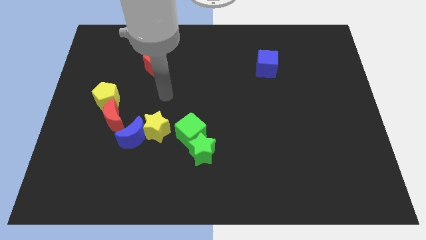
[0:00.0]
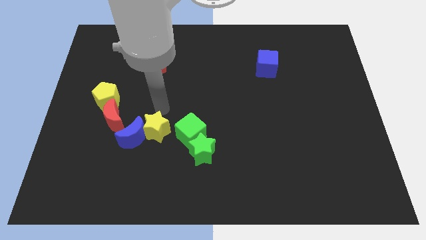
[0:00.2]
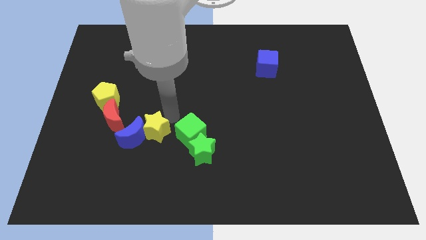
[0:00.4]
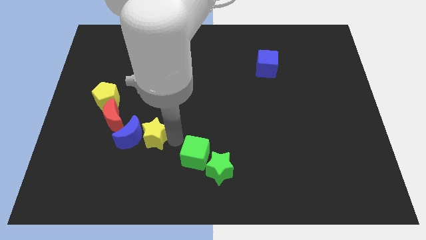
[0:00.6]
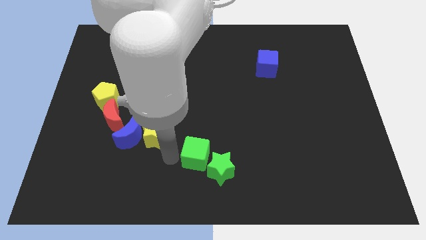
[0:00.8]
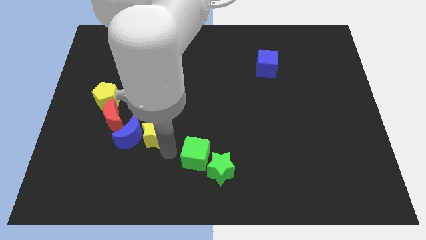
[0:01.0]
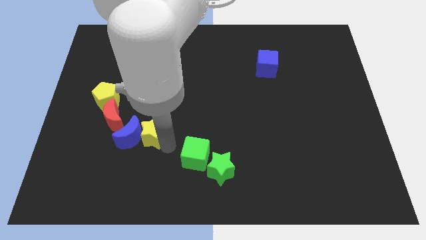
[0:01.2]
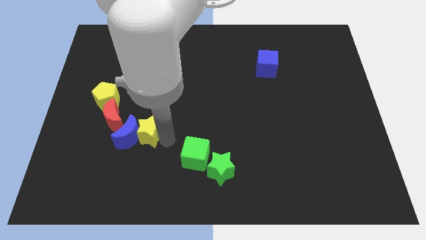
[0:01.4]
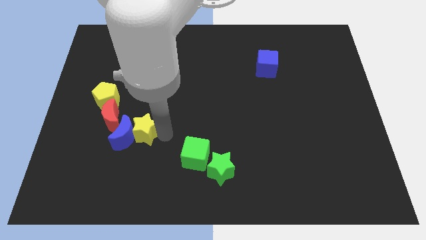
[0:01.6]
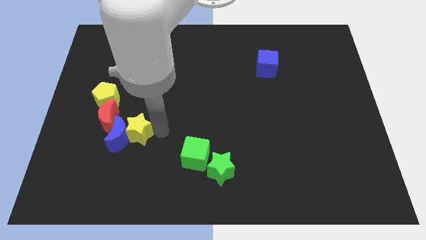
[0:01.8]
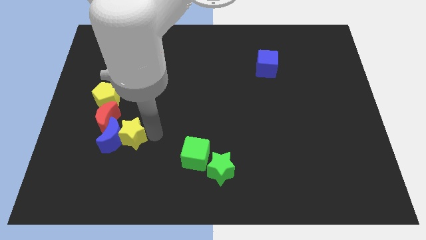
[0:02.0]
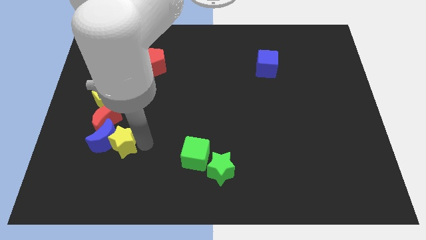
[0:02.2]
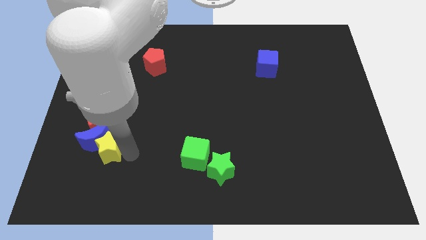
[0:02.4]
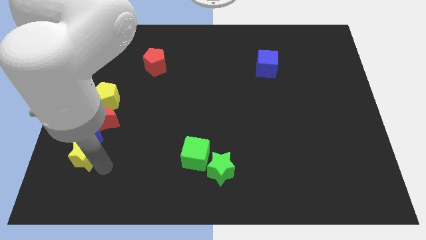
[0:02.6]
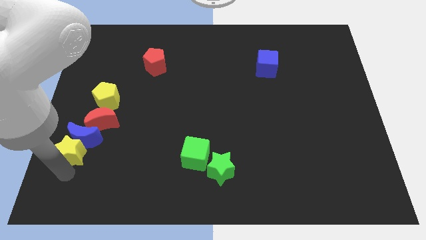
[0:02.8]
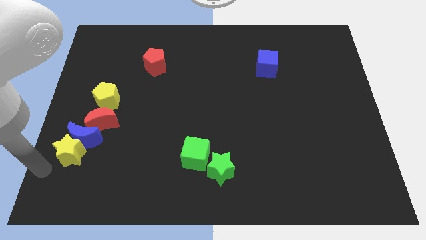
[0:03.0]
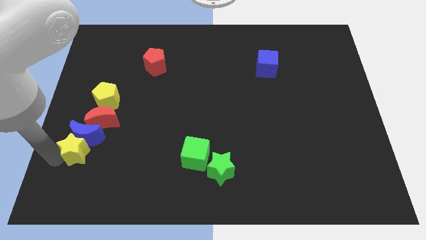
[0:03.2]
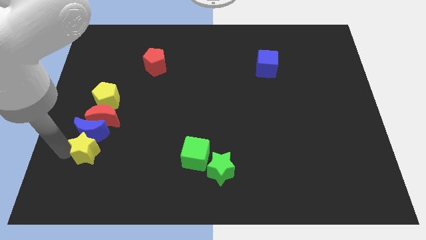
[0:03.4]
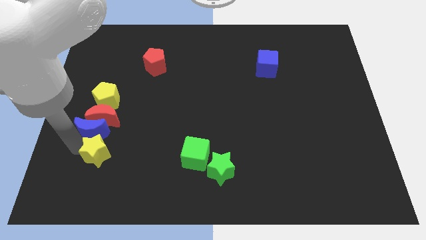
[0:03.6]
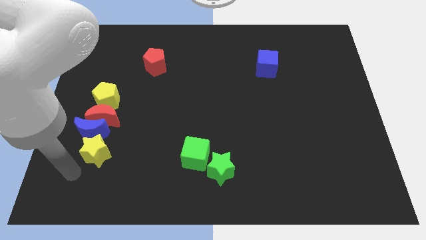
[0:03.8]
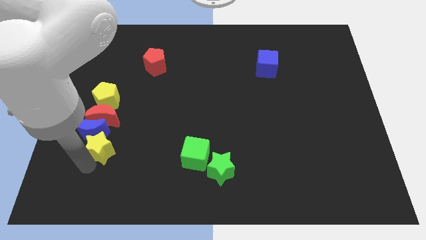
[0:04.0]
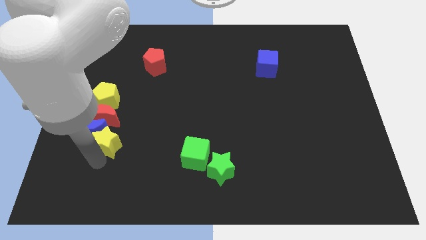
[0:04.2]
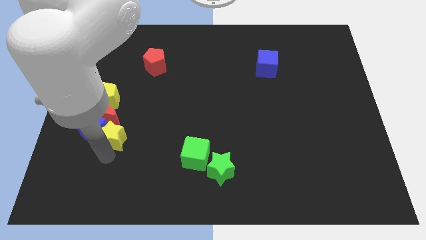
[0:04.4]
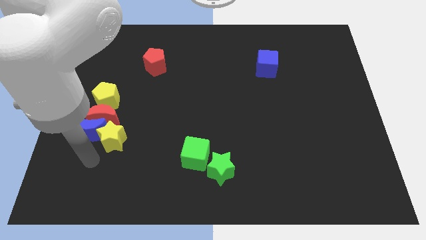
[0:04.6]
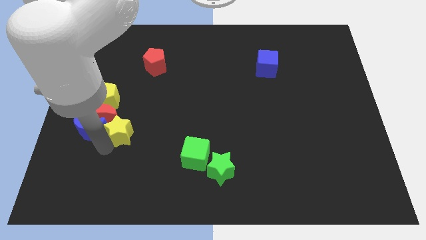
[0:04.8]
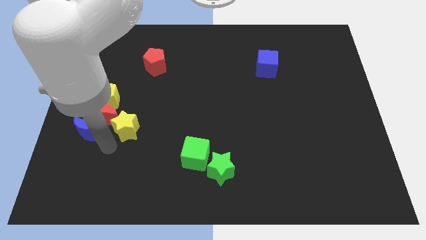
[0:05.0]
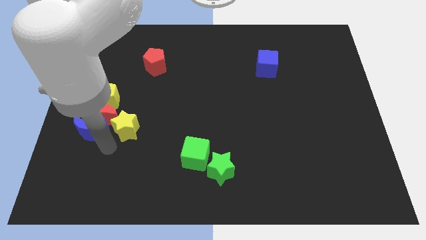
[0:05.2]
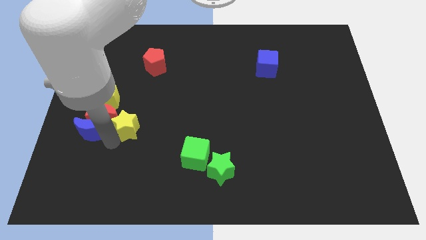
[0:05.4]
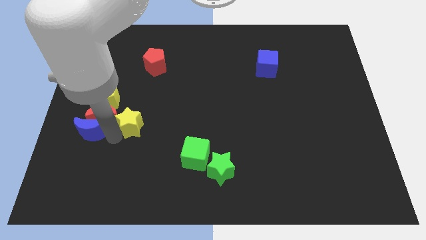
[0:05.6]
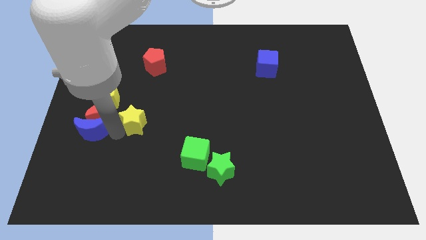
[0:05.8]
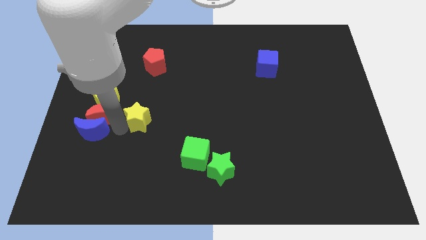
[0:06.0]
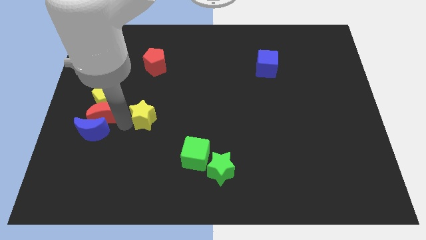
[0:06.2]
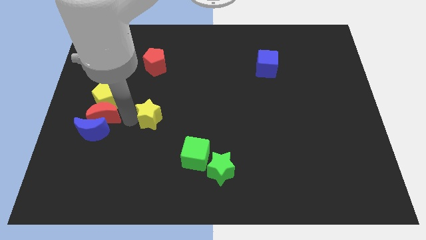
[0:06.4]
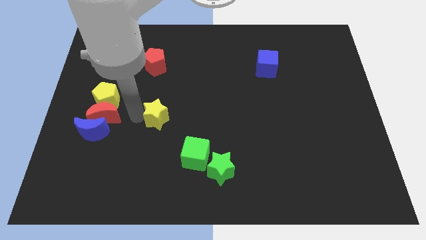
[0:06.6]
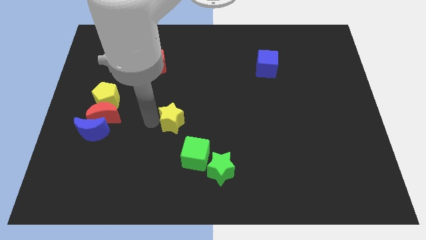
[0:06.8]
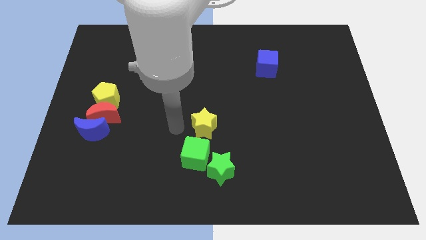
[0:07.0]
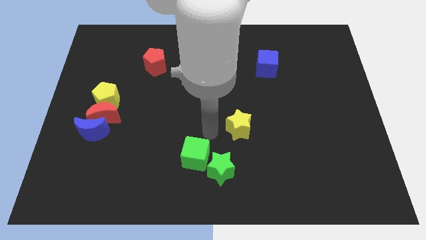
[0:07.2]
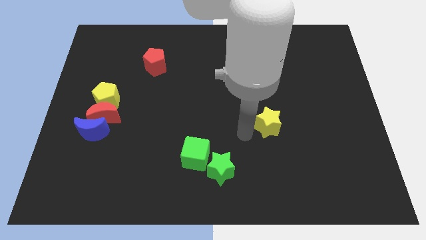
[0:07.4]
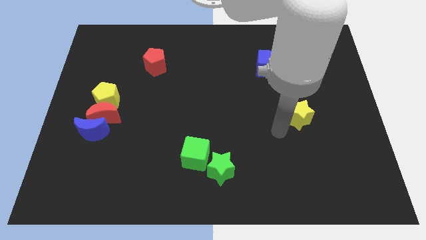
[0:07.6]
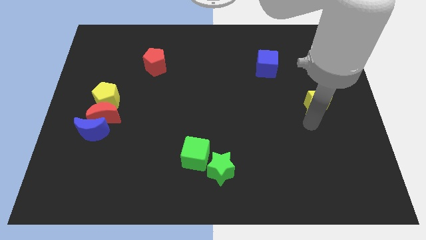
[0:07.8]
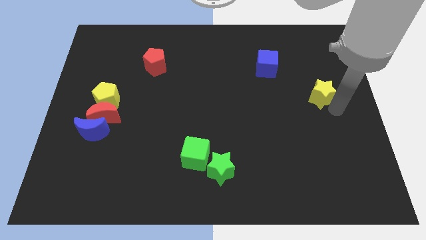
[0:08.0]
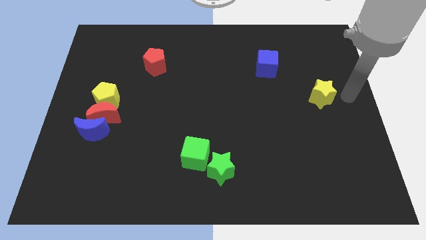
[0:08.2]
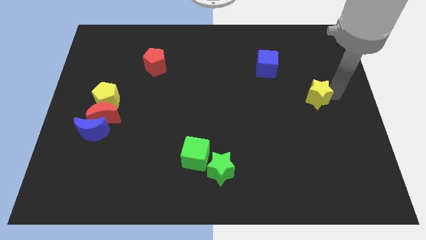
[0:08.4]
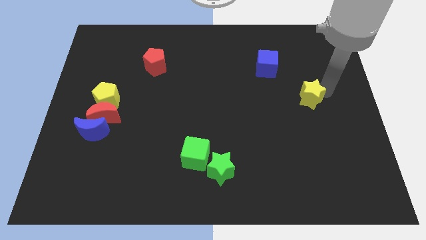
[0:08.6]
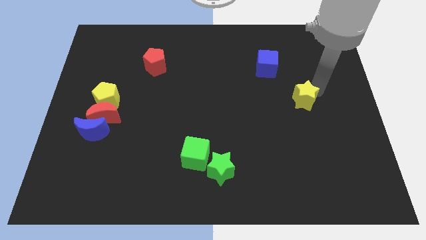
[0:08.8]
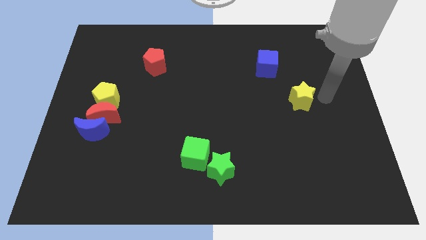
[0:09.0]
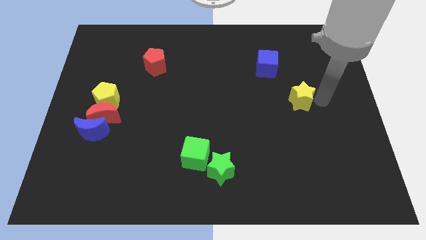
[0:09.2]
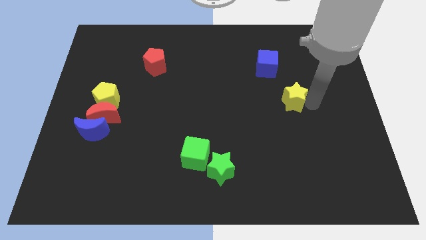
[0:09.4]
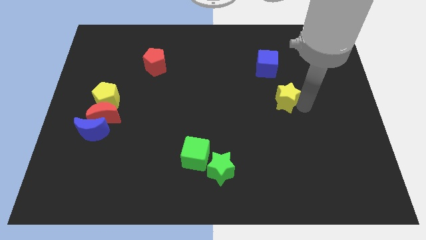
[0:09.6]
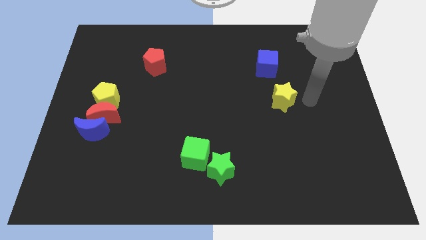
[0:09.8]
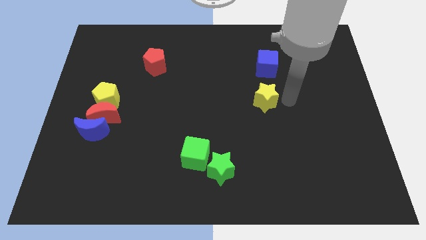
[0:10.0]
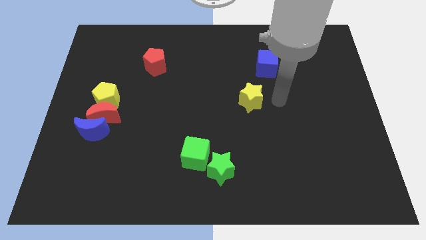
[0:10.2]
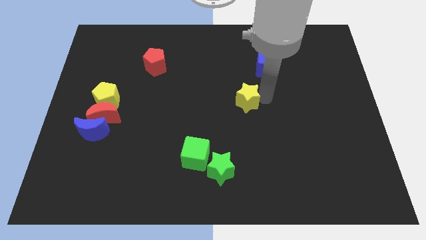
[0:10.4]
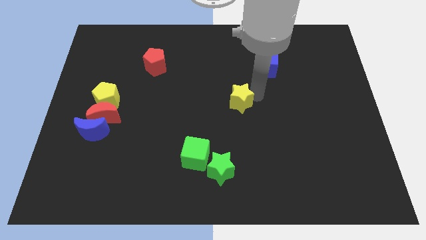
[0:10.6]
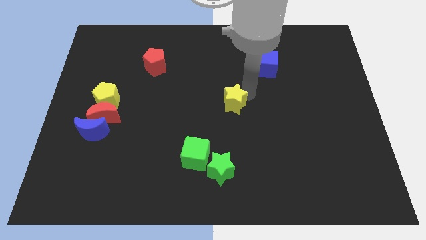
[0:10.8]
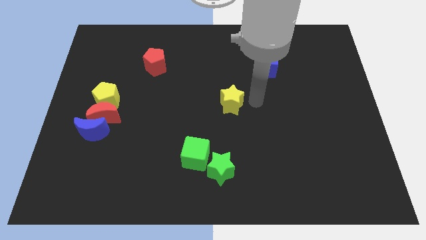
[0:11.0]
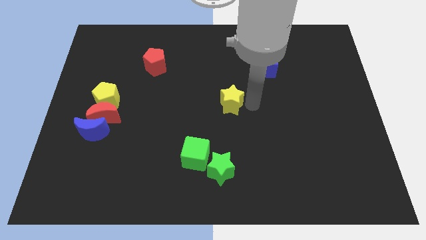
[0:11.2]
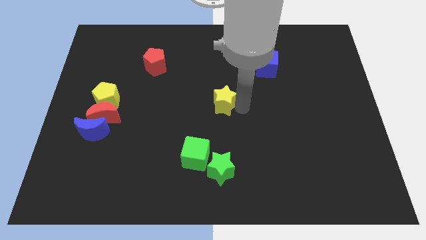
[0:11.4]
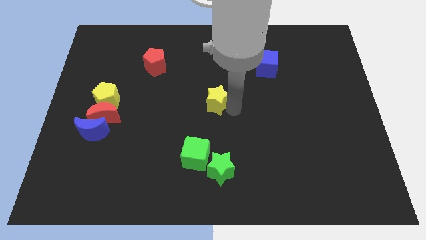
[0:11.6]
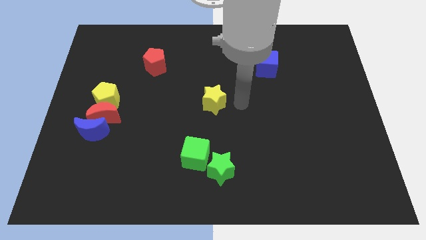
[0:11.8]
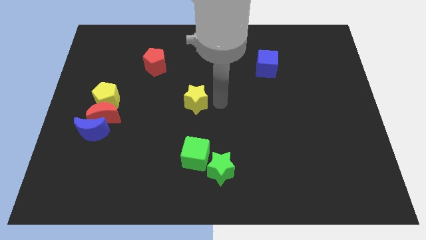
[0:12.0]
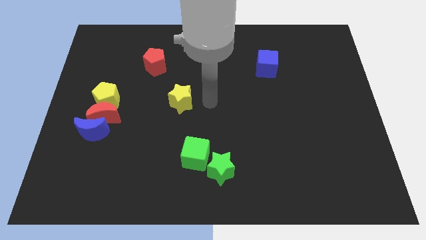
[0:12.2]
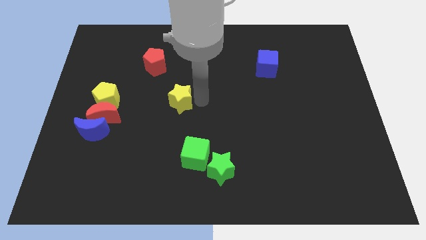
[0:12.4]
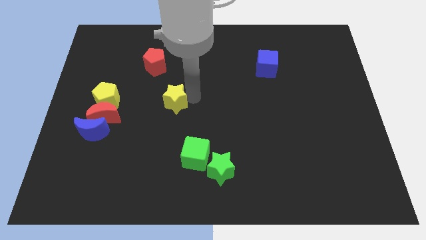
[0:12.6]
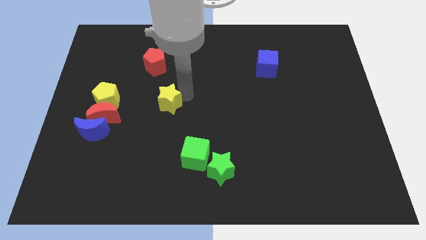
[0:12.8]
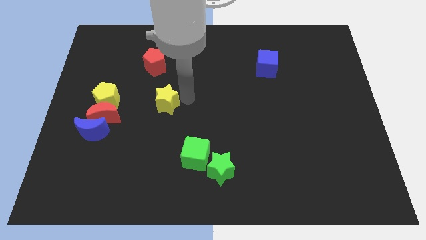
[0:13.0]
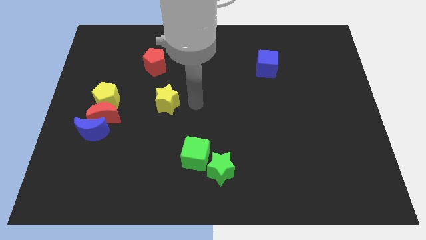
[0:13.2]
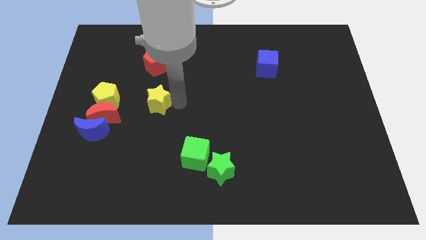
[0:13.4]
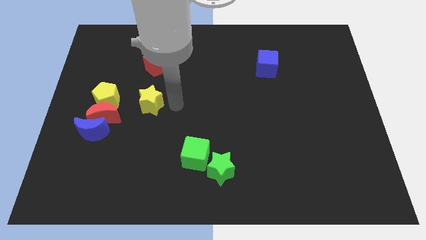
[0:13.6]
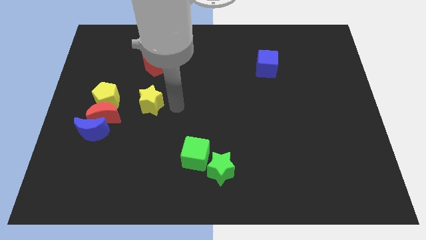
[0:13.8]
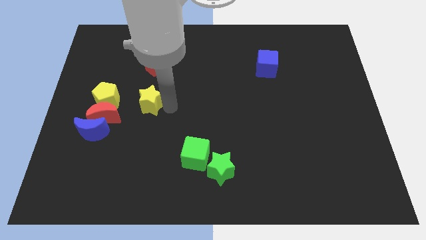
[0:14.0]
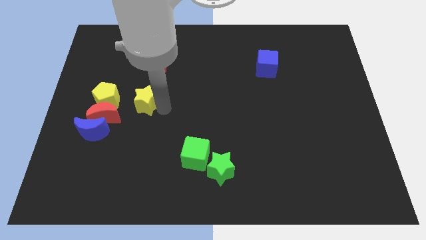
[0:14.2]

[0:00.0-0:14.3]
move the yellow star a little bit upwards and left

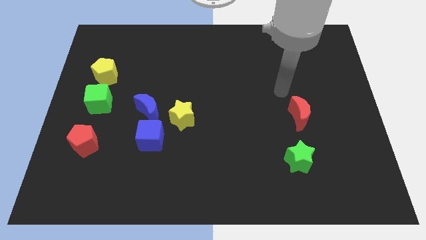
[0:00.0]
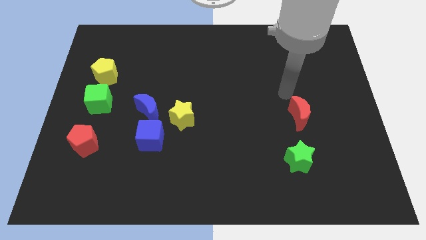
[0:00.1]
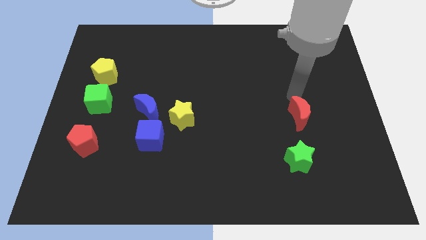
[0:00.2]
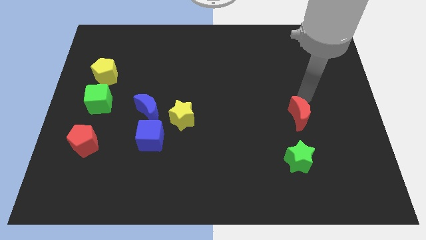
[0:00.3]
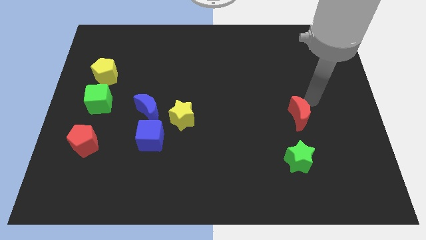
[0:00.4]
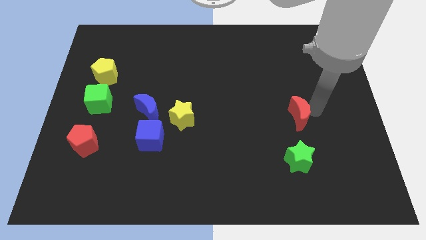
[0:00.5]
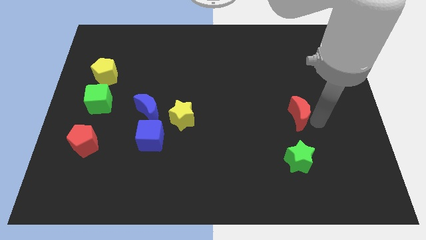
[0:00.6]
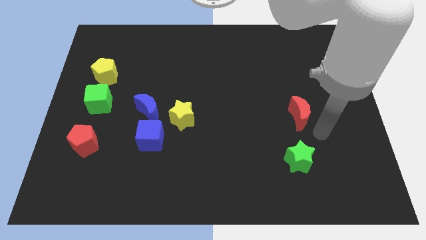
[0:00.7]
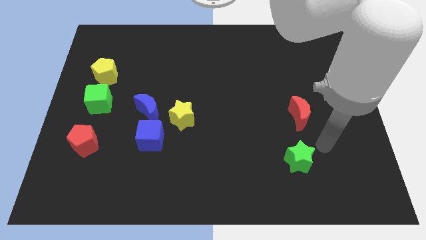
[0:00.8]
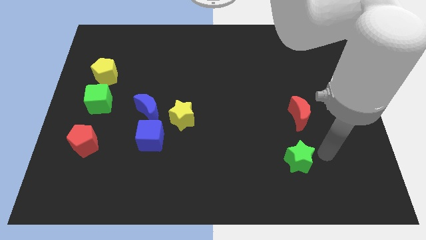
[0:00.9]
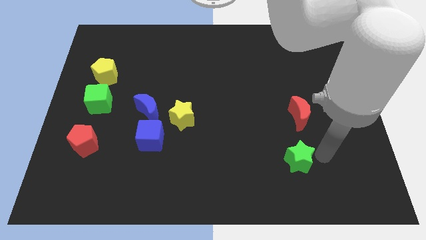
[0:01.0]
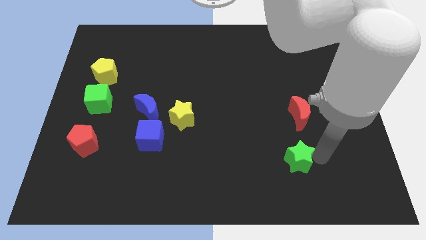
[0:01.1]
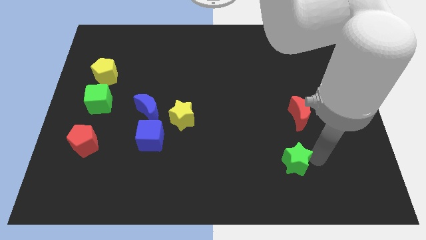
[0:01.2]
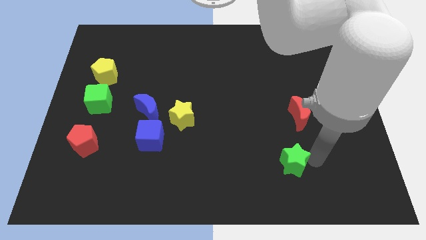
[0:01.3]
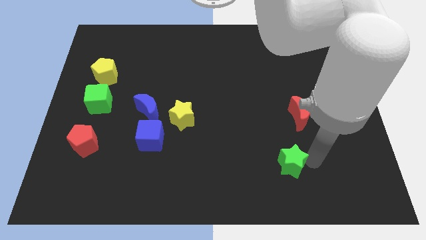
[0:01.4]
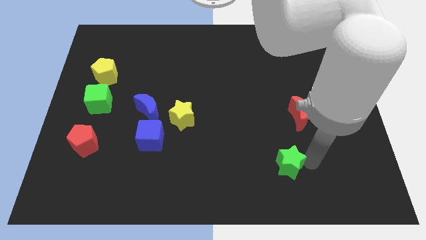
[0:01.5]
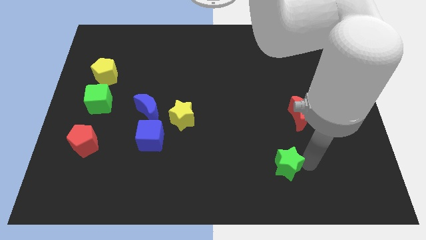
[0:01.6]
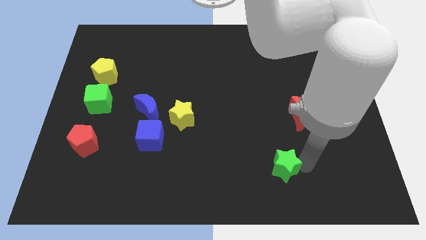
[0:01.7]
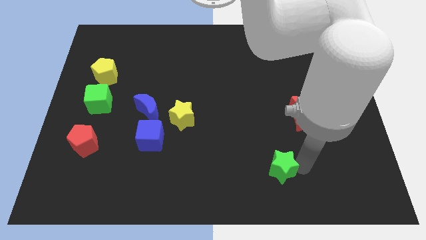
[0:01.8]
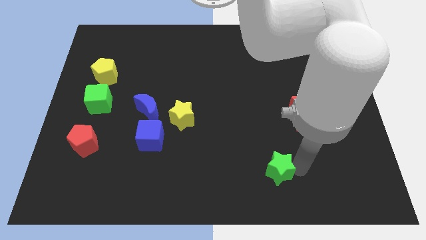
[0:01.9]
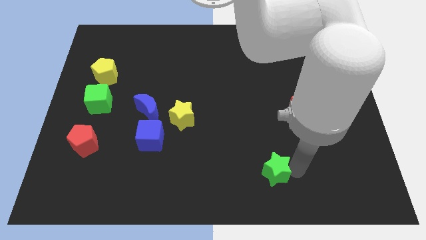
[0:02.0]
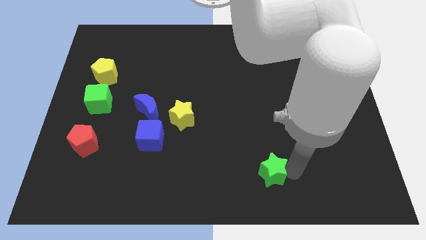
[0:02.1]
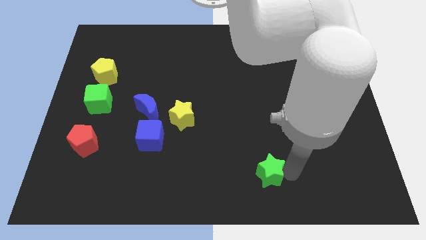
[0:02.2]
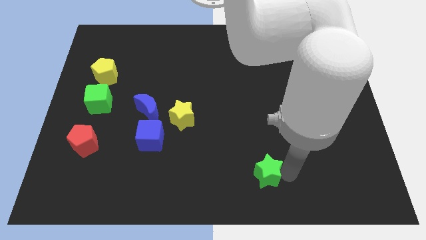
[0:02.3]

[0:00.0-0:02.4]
move the green star slightly to the left
